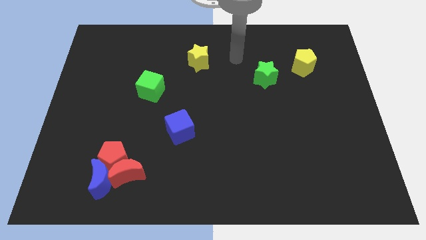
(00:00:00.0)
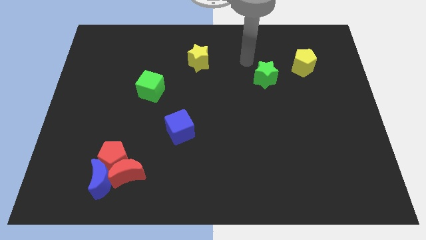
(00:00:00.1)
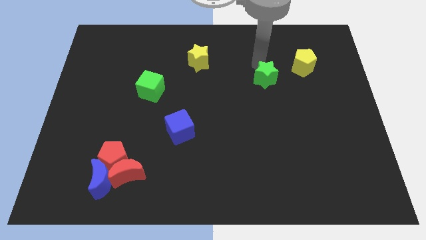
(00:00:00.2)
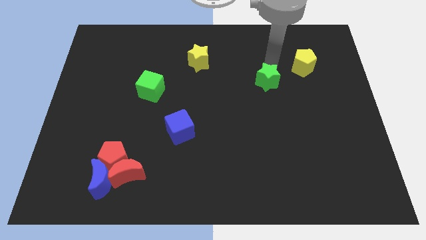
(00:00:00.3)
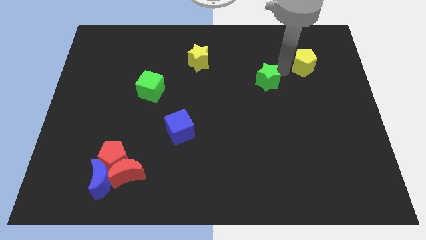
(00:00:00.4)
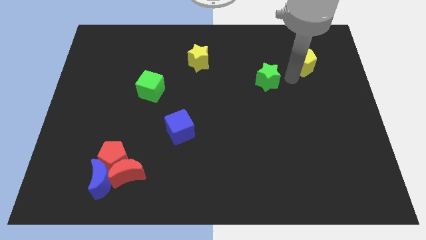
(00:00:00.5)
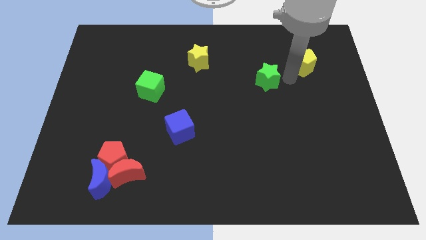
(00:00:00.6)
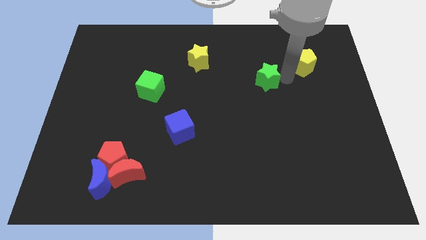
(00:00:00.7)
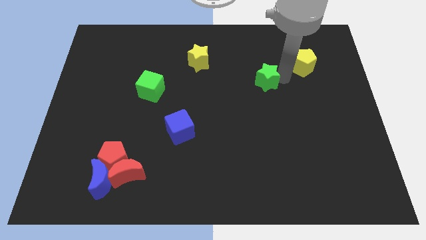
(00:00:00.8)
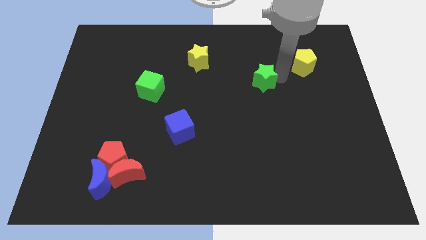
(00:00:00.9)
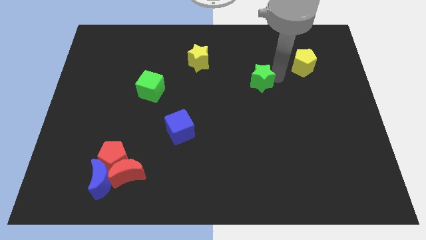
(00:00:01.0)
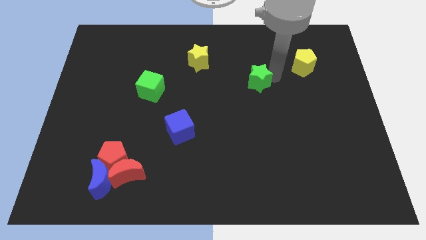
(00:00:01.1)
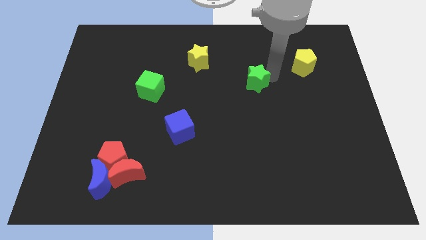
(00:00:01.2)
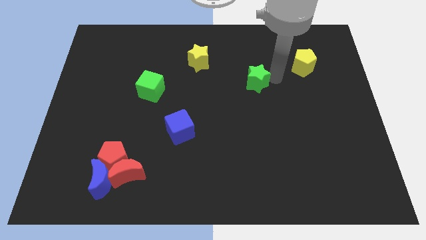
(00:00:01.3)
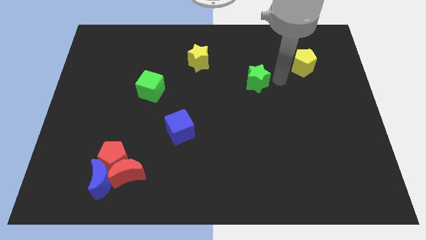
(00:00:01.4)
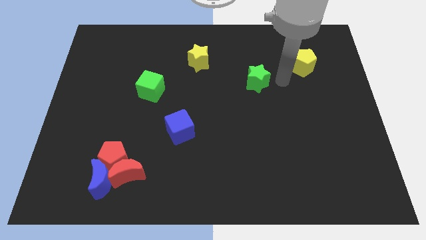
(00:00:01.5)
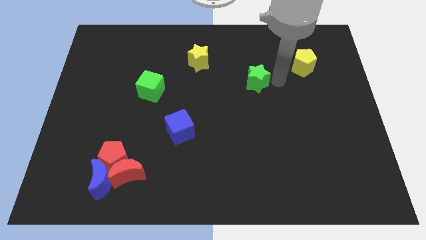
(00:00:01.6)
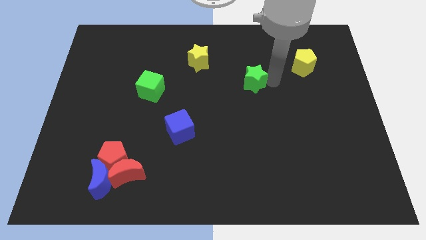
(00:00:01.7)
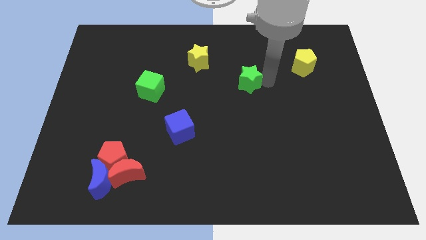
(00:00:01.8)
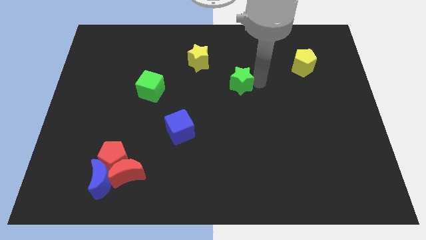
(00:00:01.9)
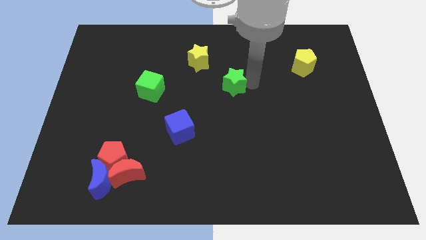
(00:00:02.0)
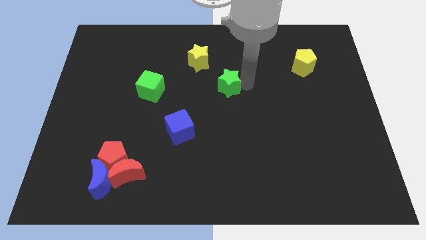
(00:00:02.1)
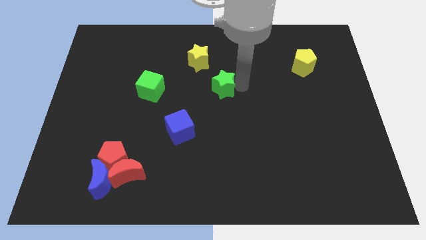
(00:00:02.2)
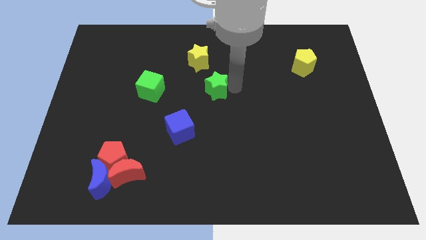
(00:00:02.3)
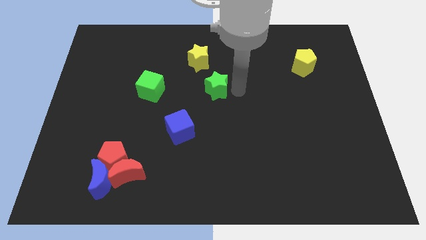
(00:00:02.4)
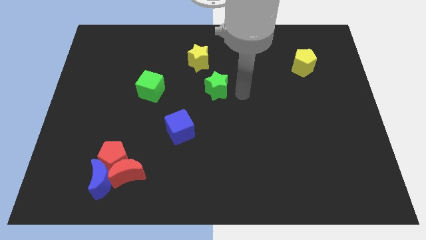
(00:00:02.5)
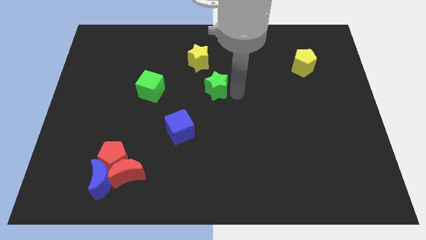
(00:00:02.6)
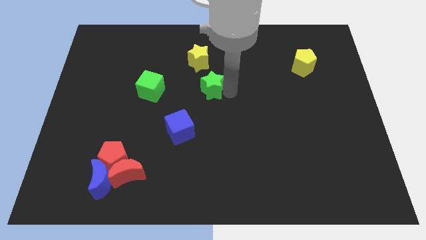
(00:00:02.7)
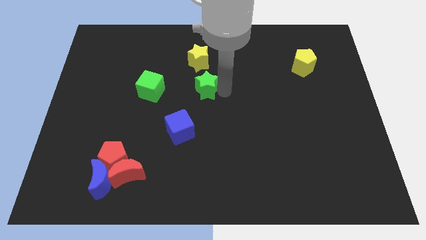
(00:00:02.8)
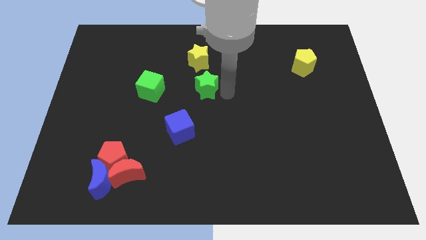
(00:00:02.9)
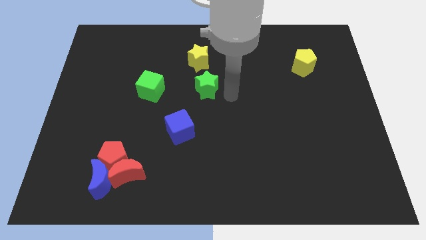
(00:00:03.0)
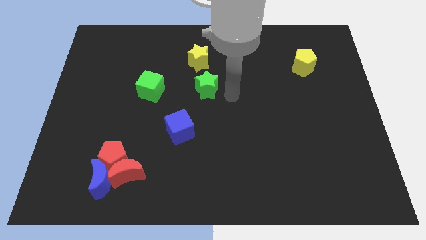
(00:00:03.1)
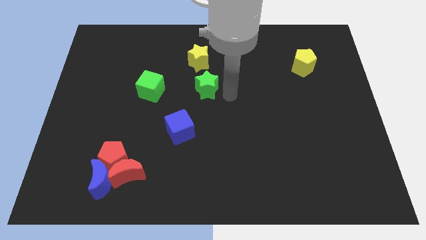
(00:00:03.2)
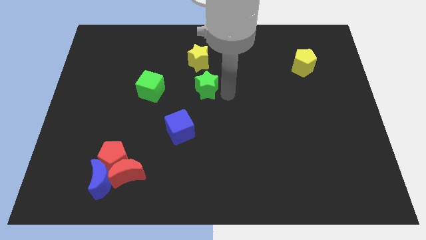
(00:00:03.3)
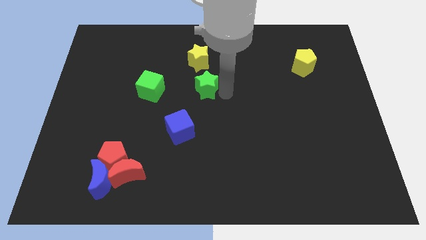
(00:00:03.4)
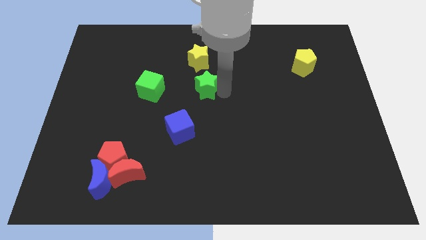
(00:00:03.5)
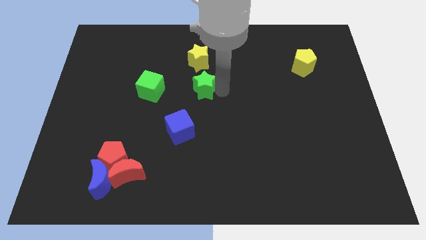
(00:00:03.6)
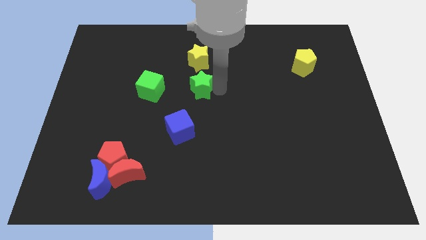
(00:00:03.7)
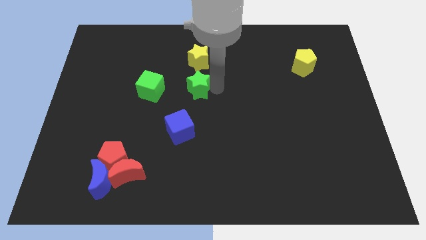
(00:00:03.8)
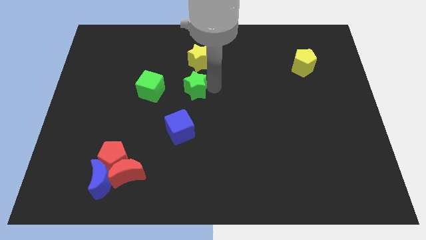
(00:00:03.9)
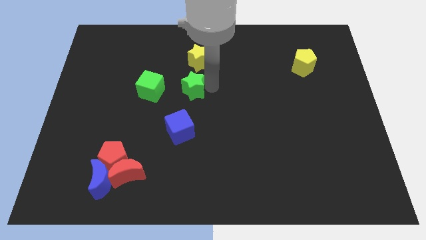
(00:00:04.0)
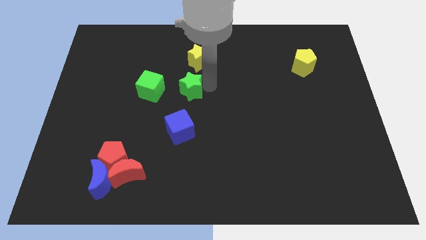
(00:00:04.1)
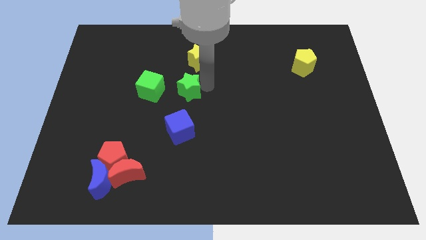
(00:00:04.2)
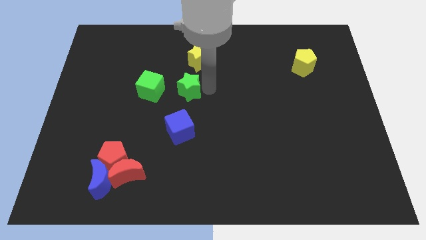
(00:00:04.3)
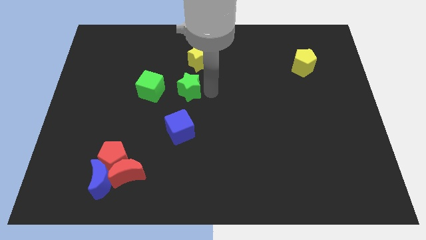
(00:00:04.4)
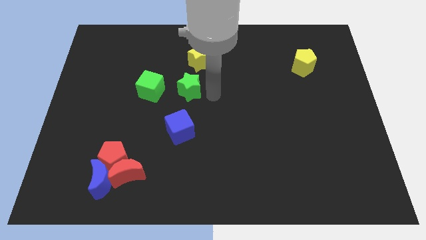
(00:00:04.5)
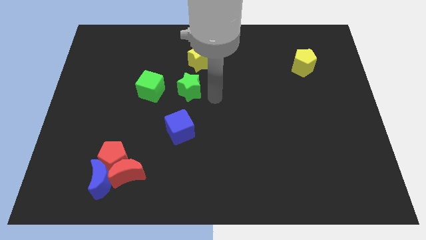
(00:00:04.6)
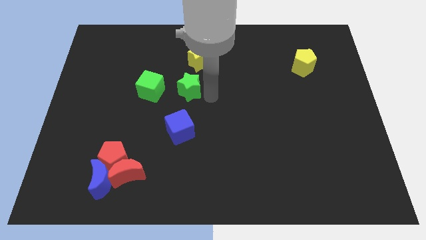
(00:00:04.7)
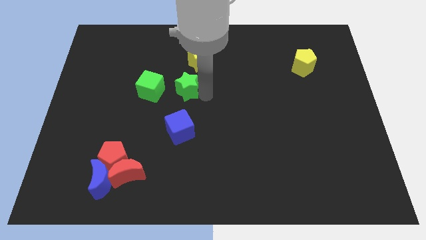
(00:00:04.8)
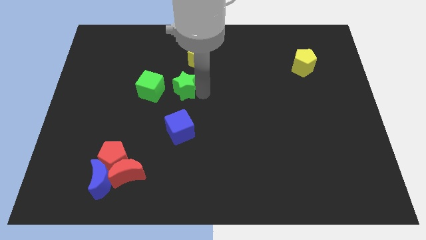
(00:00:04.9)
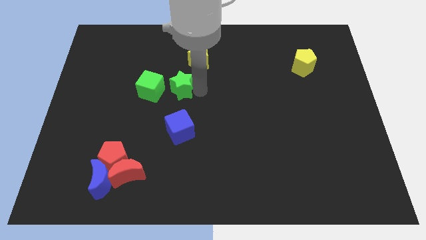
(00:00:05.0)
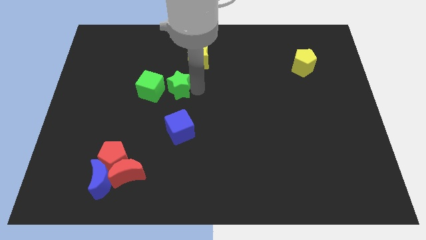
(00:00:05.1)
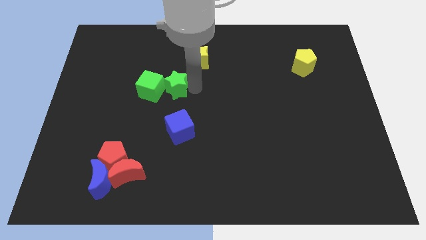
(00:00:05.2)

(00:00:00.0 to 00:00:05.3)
push the green star to the green cube

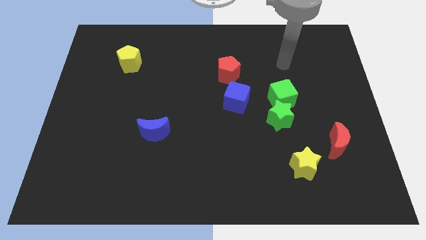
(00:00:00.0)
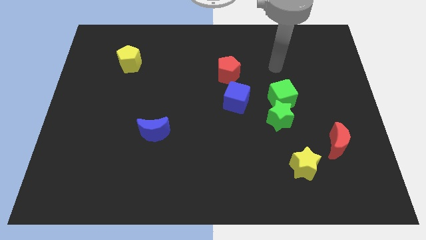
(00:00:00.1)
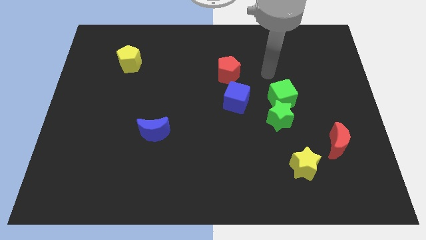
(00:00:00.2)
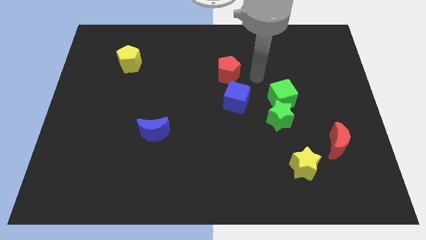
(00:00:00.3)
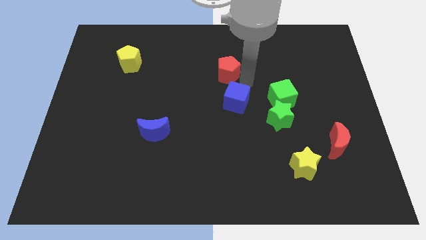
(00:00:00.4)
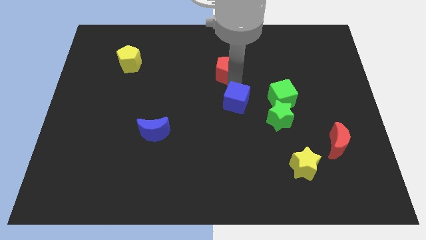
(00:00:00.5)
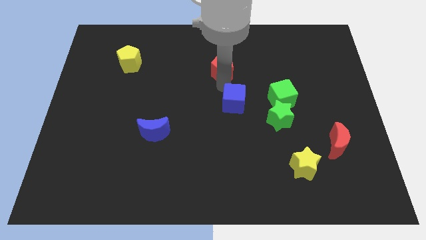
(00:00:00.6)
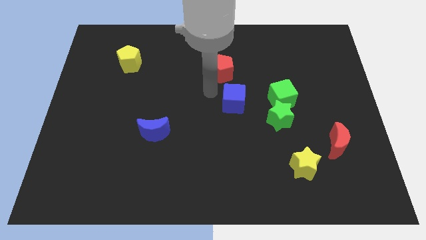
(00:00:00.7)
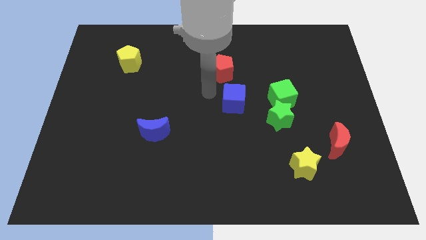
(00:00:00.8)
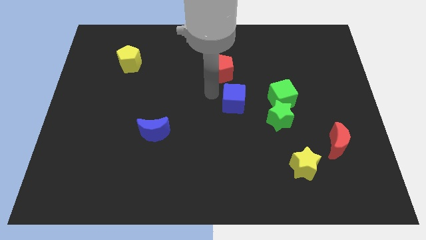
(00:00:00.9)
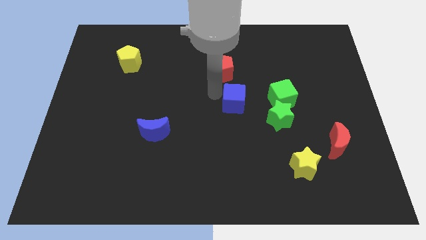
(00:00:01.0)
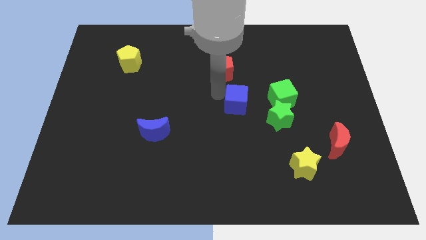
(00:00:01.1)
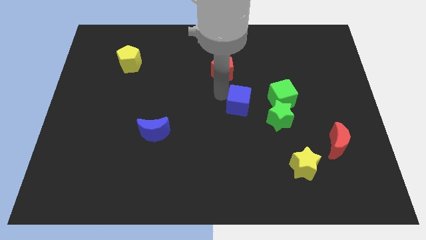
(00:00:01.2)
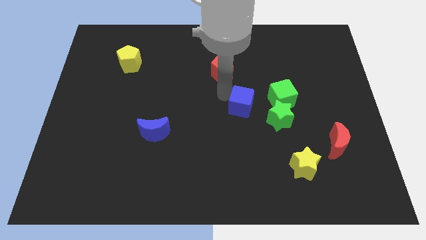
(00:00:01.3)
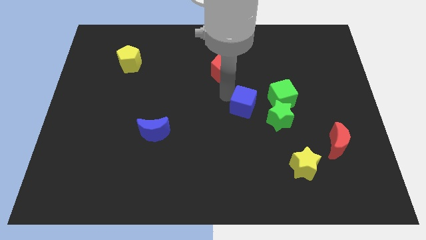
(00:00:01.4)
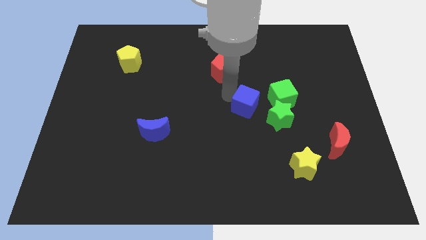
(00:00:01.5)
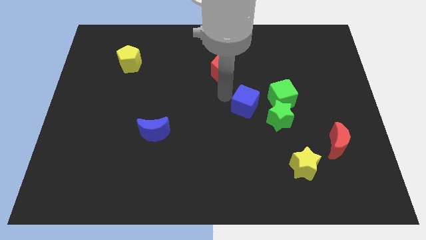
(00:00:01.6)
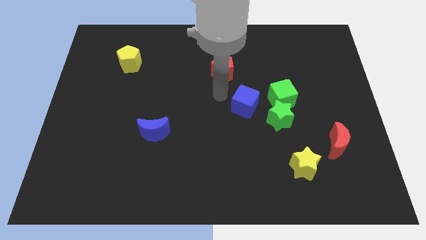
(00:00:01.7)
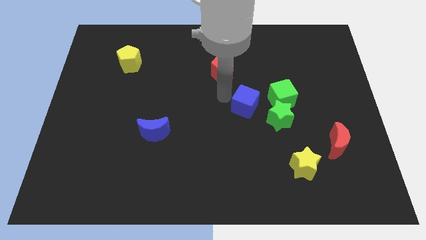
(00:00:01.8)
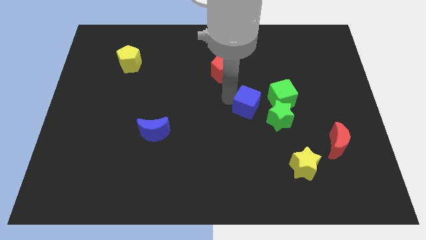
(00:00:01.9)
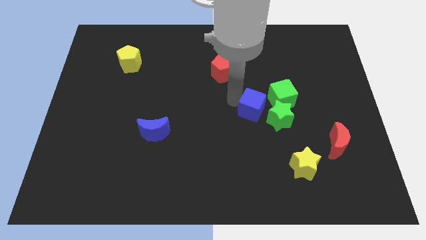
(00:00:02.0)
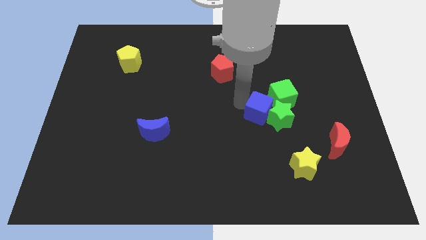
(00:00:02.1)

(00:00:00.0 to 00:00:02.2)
push the blue cube close to the green star
